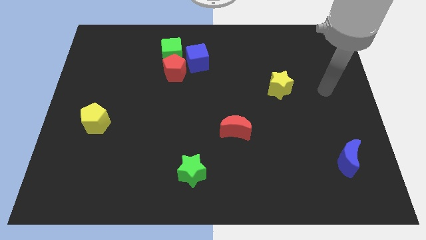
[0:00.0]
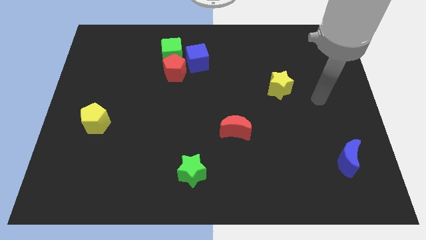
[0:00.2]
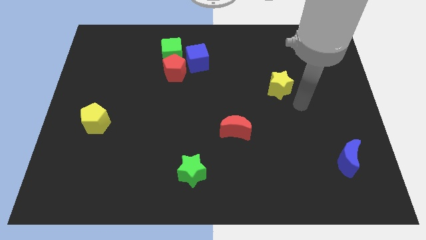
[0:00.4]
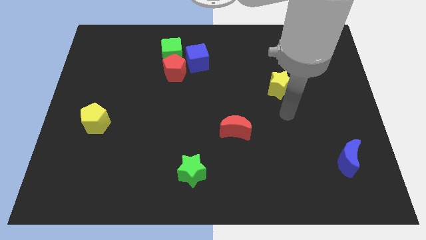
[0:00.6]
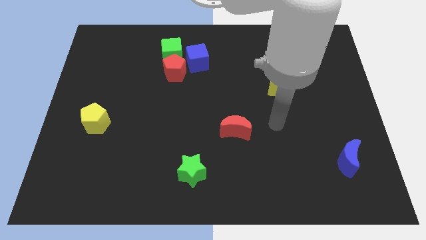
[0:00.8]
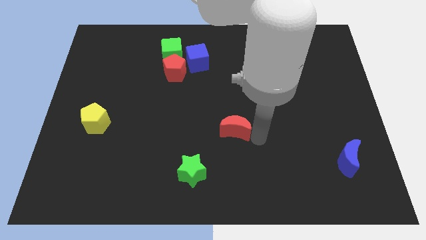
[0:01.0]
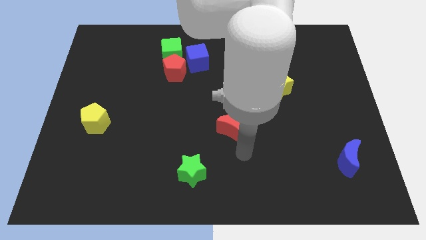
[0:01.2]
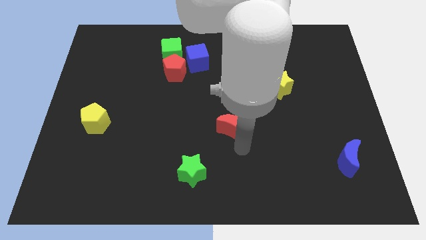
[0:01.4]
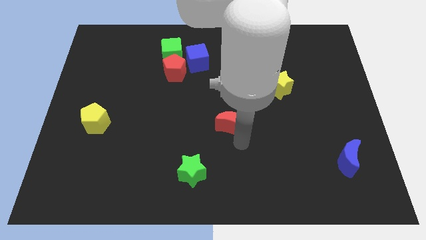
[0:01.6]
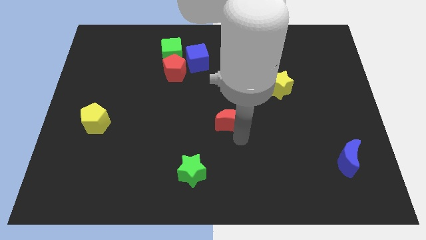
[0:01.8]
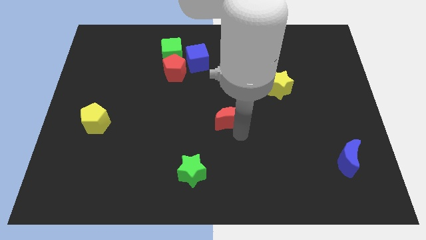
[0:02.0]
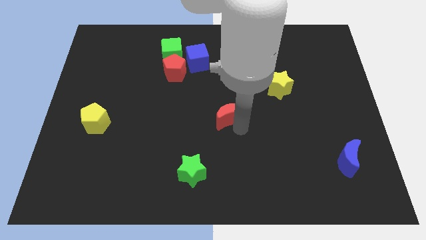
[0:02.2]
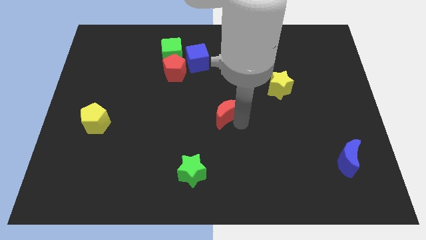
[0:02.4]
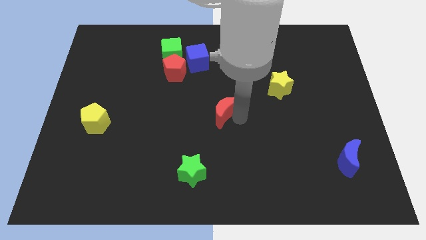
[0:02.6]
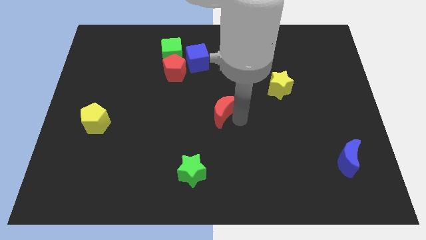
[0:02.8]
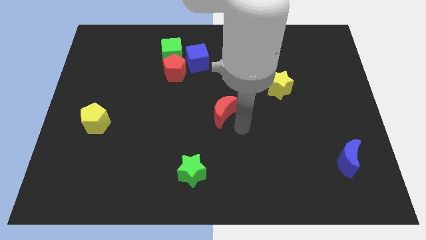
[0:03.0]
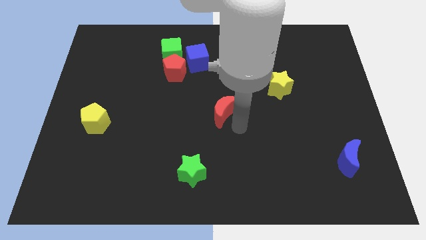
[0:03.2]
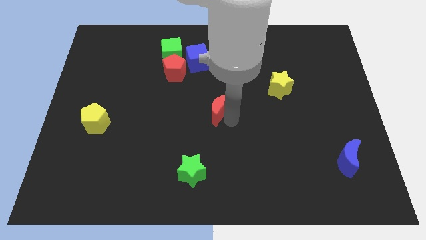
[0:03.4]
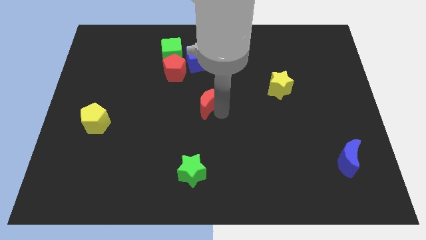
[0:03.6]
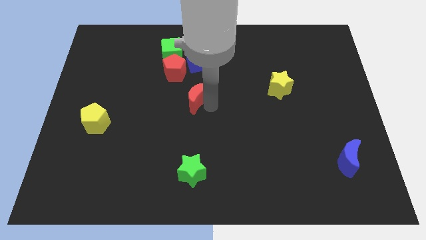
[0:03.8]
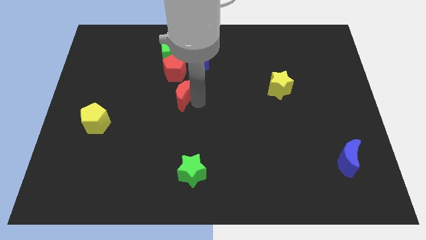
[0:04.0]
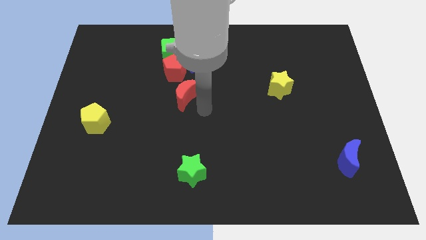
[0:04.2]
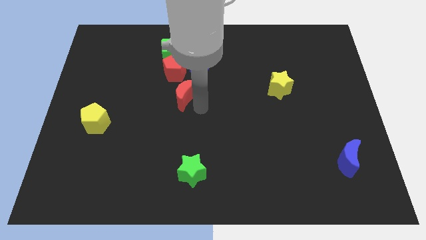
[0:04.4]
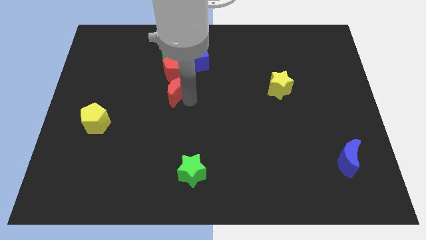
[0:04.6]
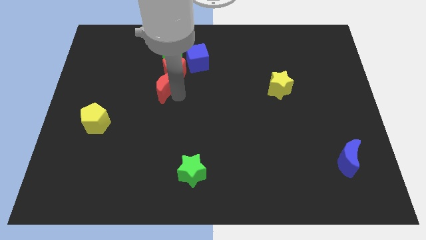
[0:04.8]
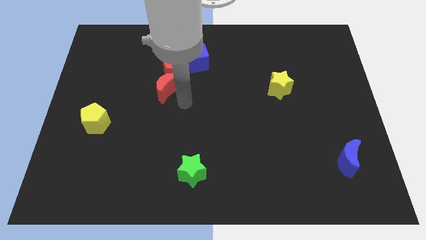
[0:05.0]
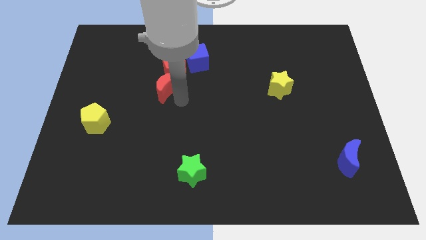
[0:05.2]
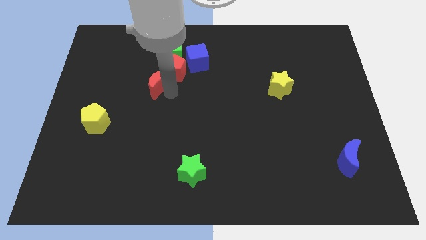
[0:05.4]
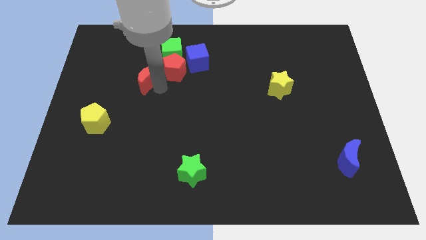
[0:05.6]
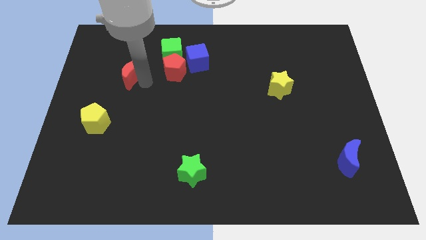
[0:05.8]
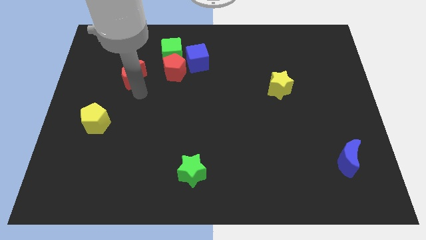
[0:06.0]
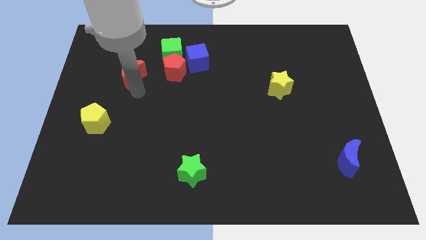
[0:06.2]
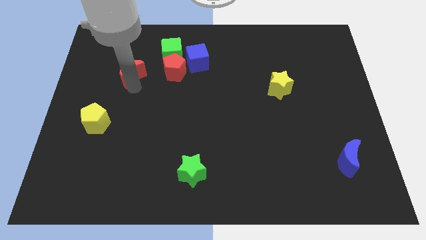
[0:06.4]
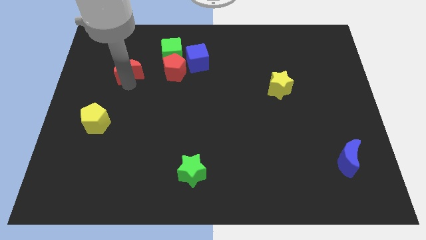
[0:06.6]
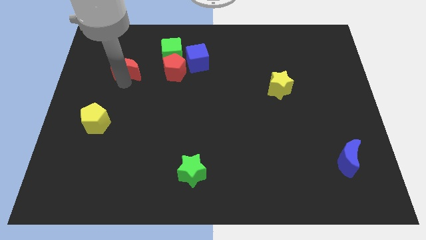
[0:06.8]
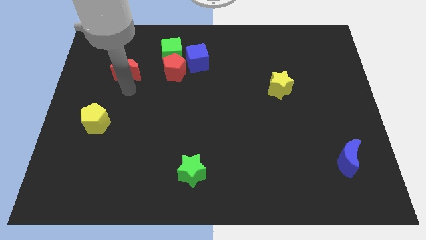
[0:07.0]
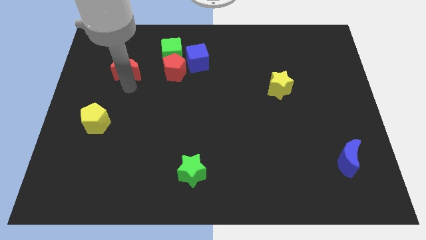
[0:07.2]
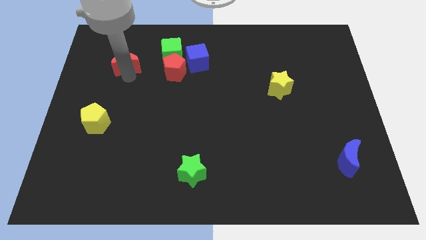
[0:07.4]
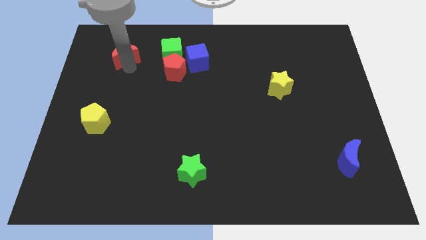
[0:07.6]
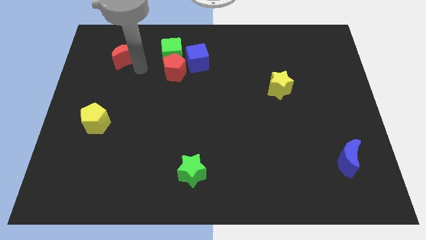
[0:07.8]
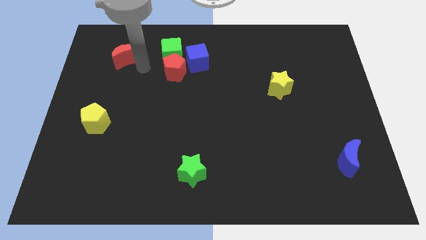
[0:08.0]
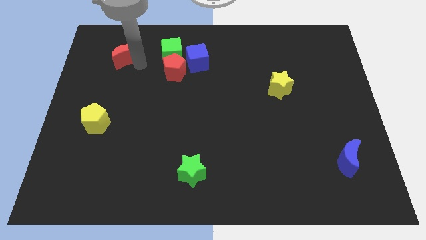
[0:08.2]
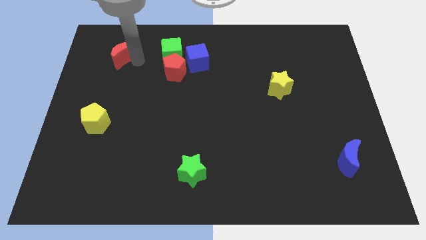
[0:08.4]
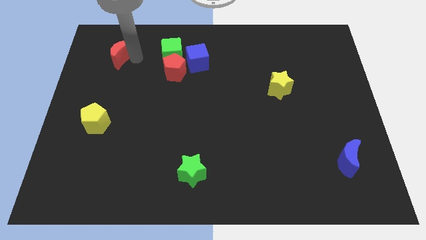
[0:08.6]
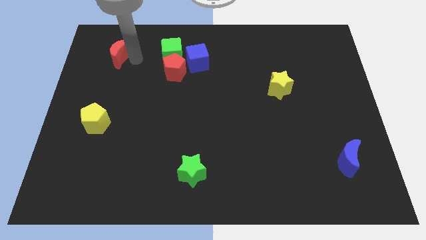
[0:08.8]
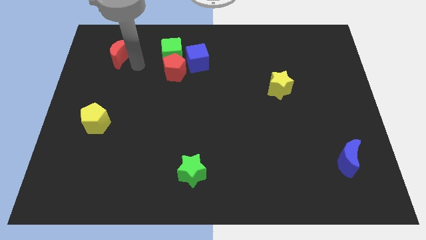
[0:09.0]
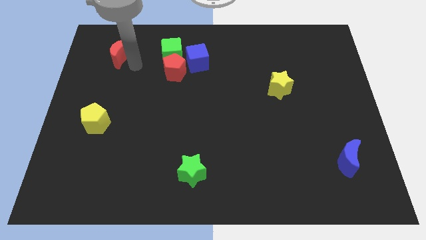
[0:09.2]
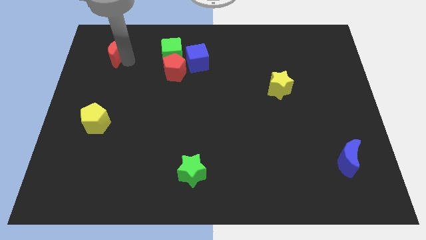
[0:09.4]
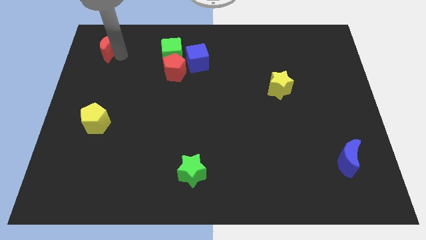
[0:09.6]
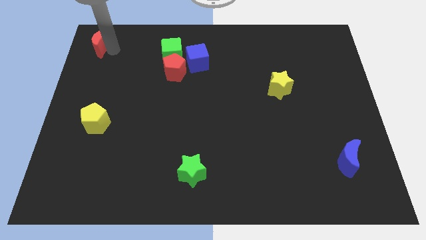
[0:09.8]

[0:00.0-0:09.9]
slide the red moon to the upper left corner

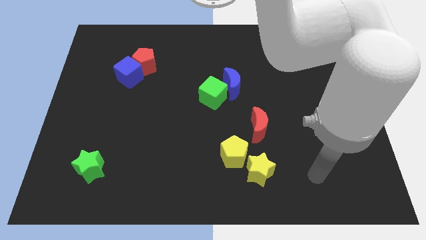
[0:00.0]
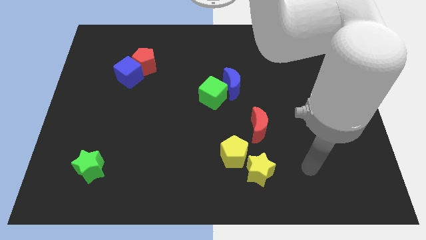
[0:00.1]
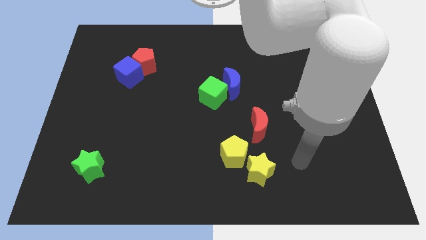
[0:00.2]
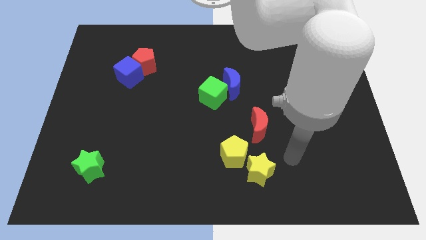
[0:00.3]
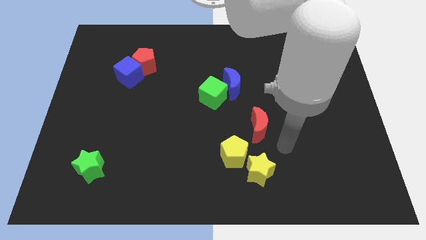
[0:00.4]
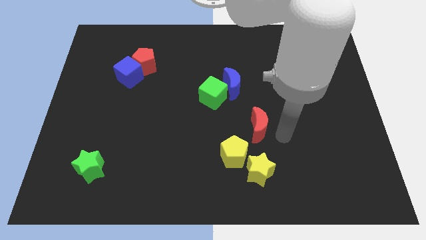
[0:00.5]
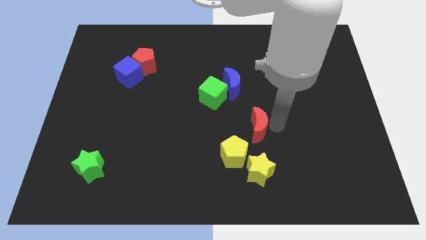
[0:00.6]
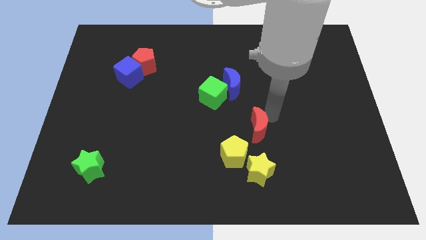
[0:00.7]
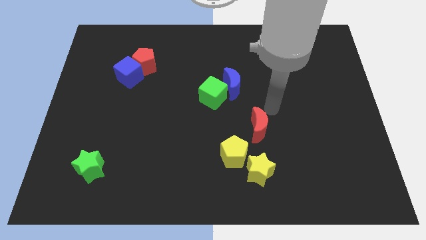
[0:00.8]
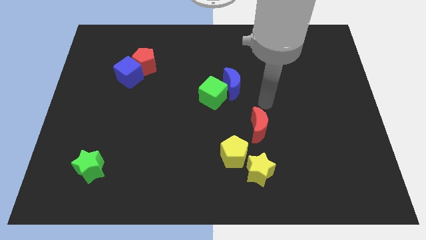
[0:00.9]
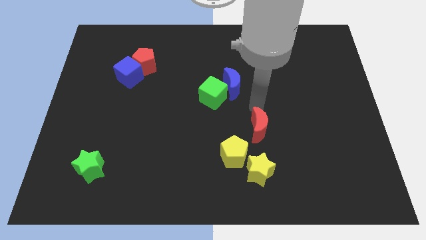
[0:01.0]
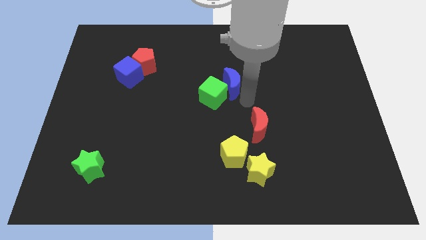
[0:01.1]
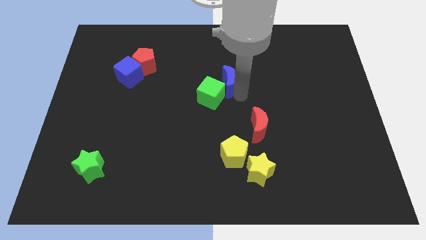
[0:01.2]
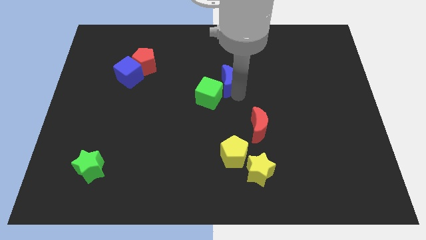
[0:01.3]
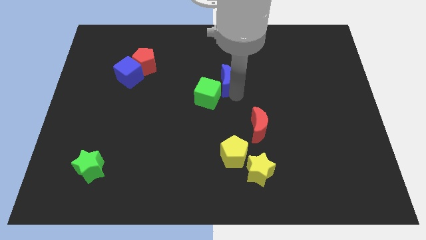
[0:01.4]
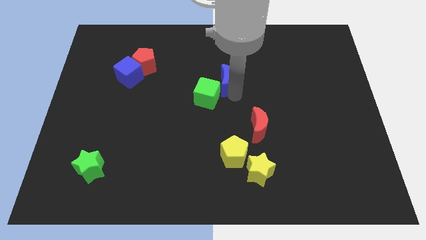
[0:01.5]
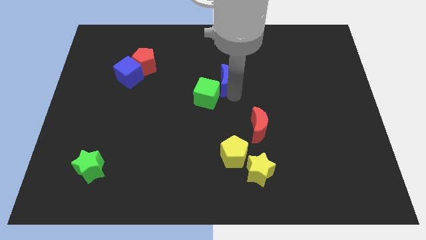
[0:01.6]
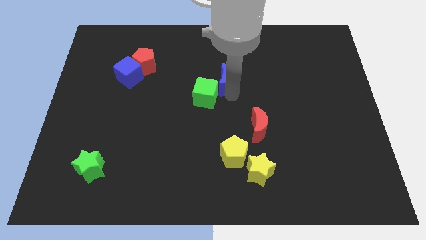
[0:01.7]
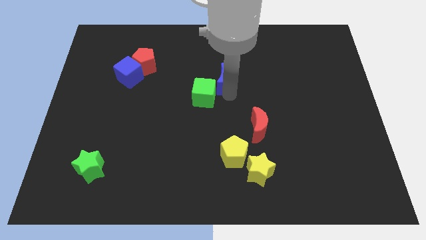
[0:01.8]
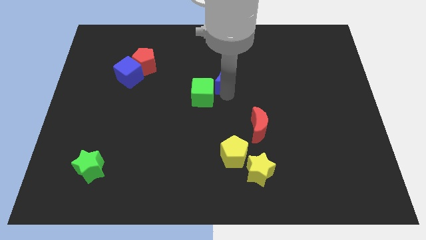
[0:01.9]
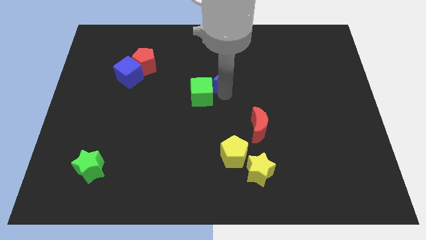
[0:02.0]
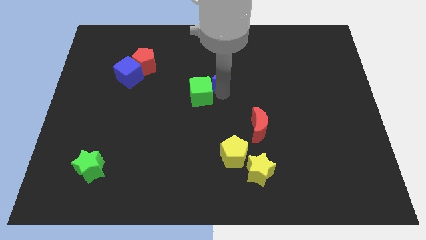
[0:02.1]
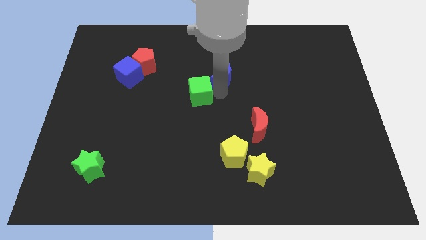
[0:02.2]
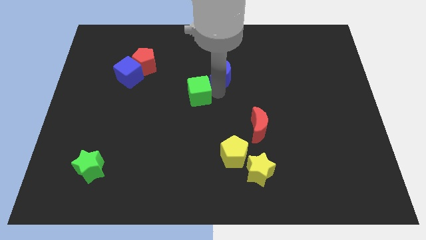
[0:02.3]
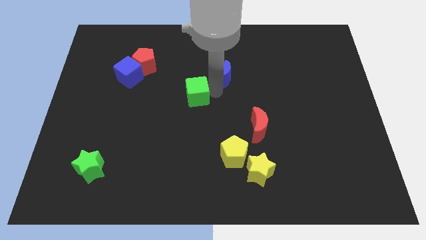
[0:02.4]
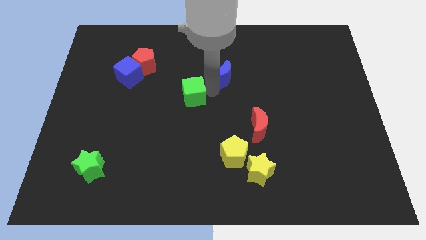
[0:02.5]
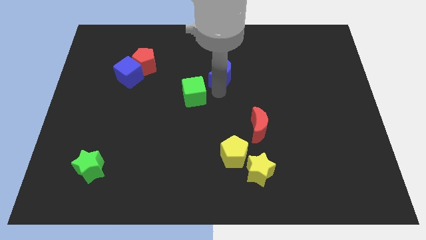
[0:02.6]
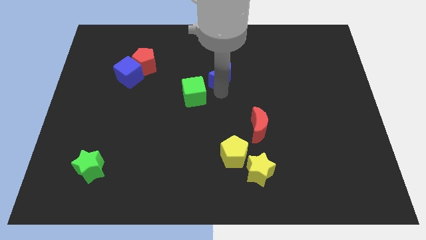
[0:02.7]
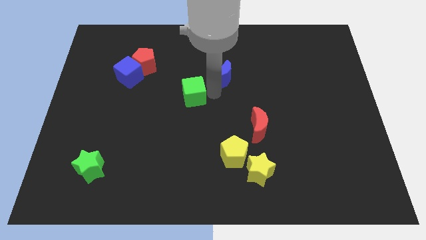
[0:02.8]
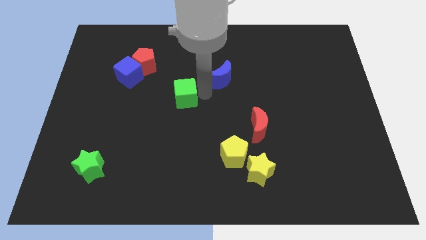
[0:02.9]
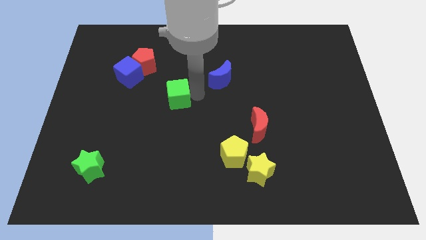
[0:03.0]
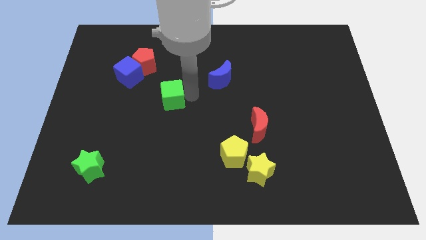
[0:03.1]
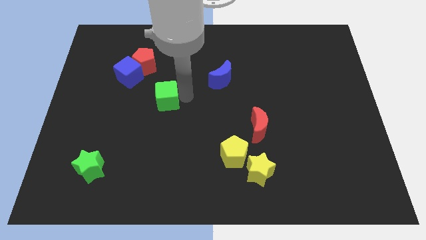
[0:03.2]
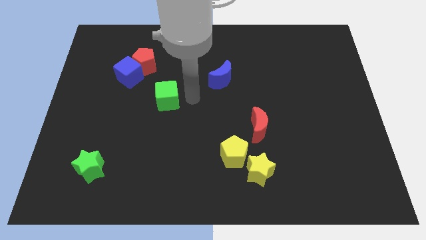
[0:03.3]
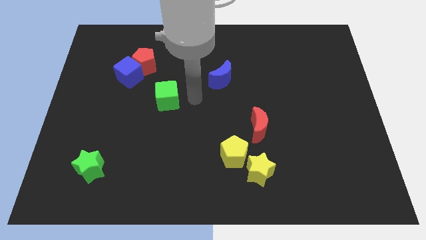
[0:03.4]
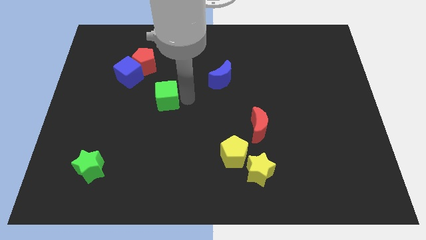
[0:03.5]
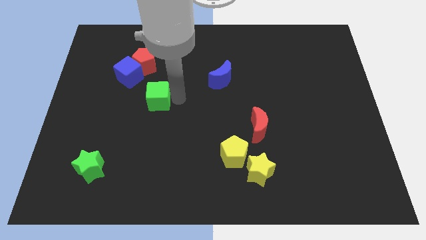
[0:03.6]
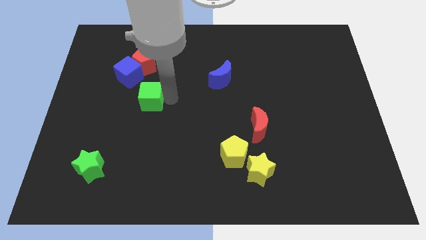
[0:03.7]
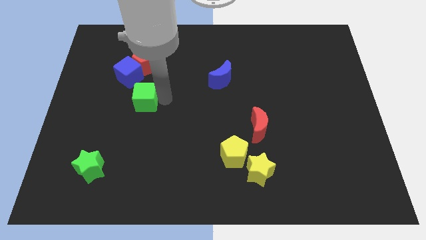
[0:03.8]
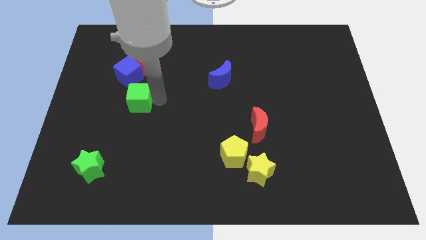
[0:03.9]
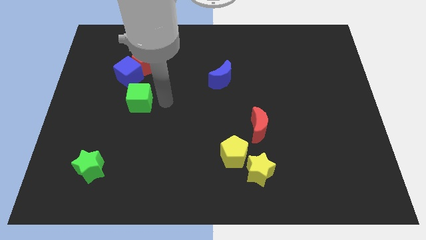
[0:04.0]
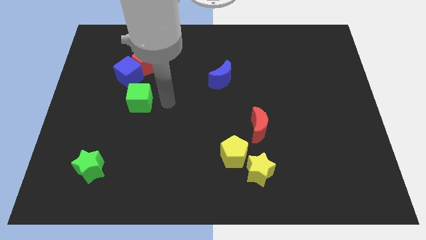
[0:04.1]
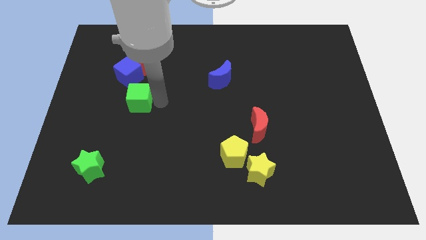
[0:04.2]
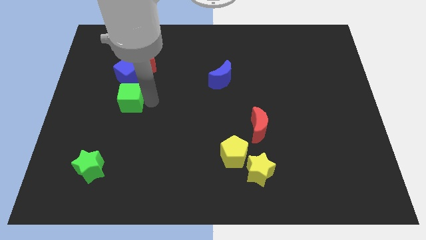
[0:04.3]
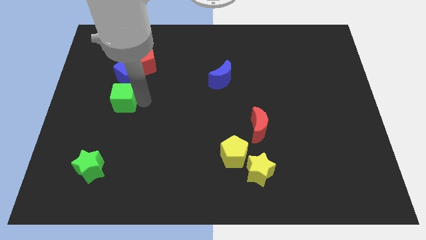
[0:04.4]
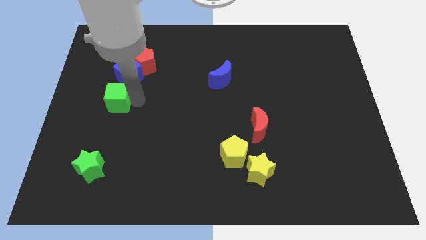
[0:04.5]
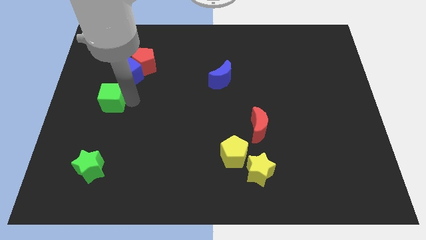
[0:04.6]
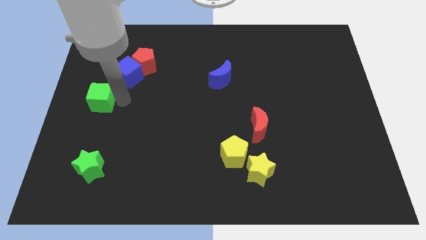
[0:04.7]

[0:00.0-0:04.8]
put the green cube to the left side of the board
